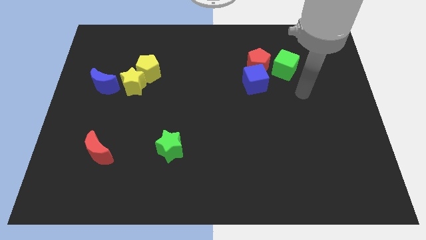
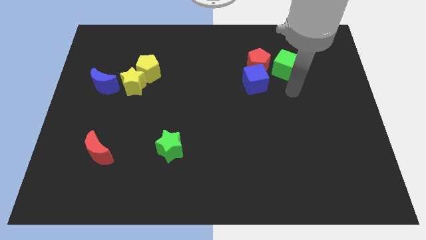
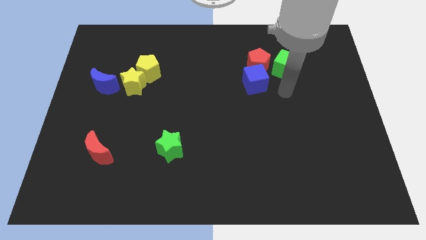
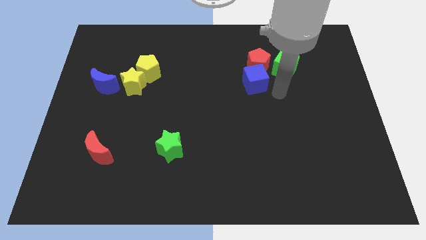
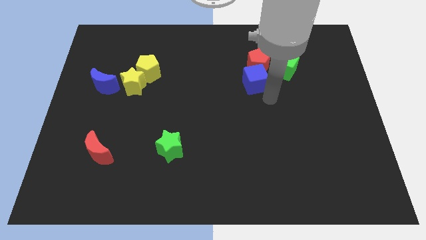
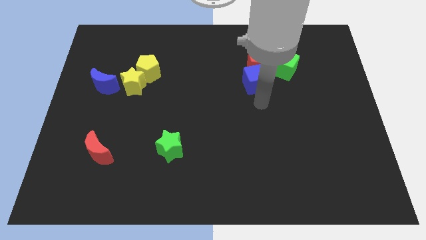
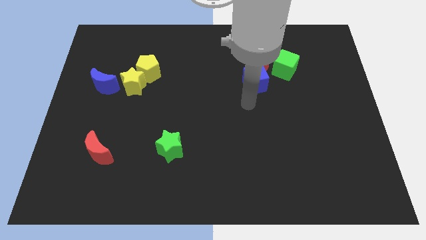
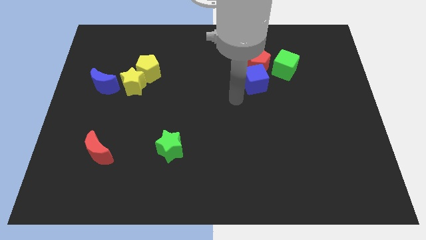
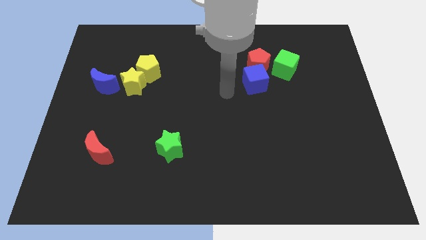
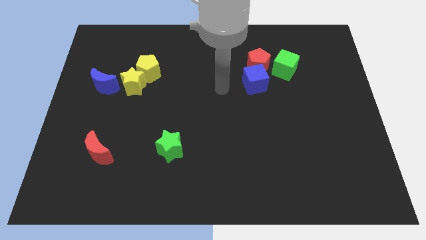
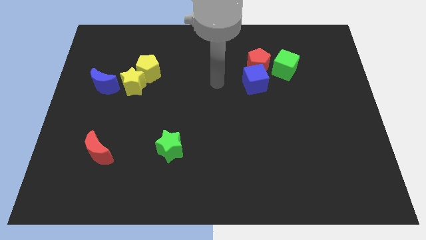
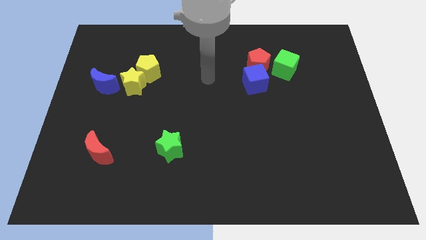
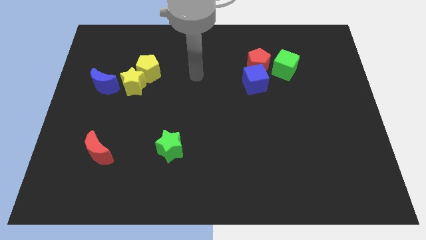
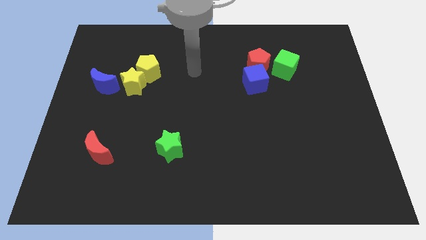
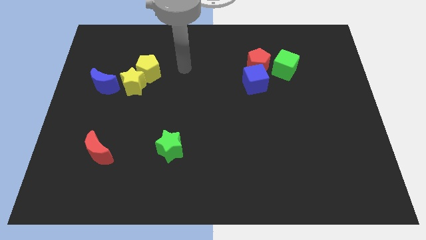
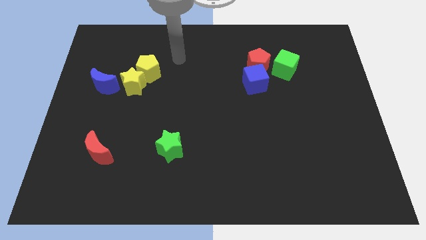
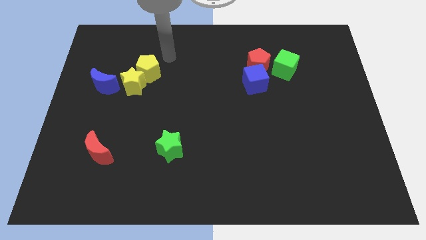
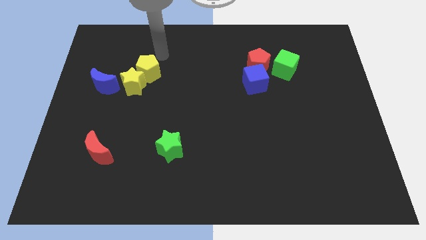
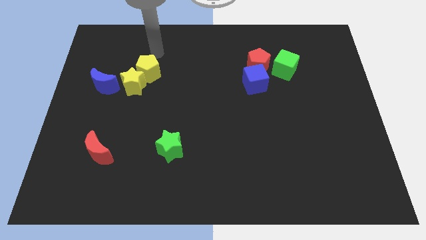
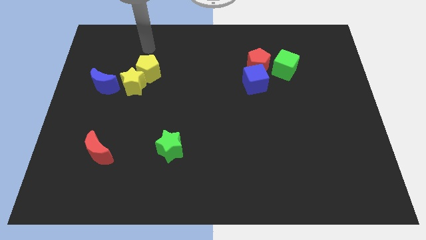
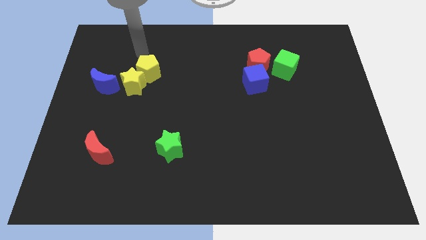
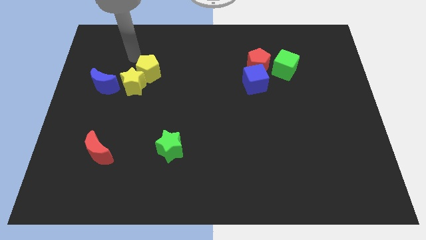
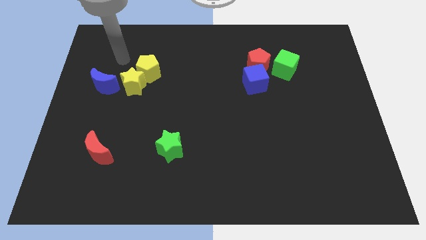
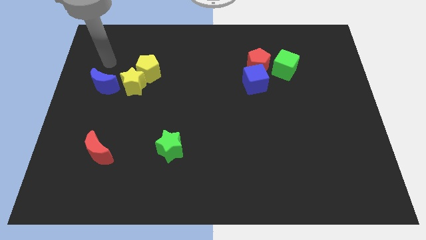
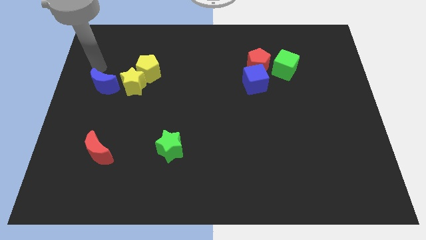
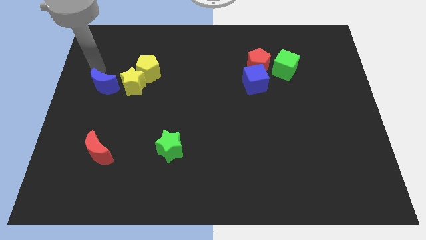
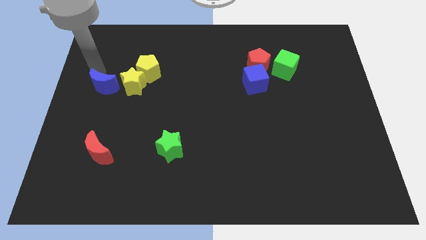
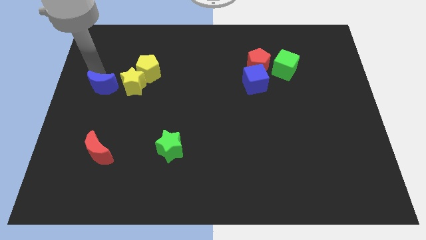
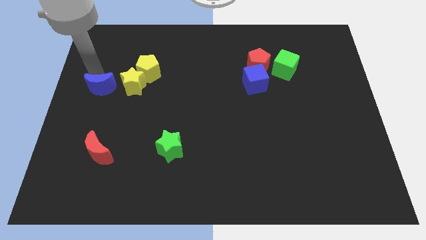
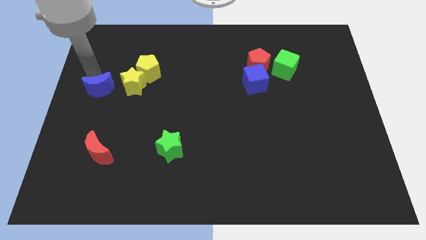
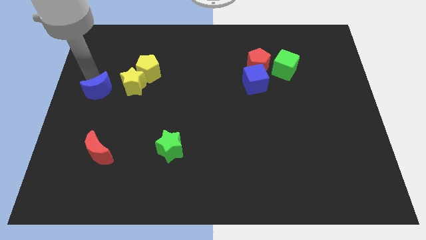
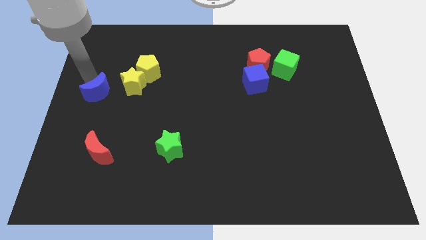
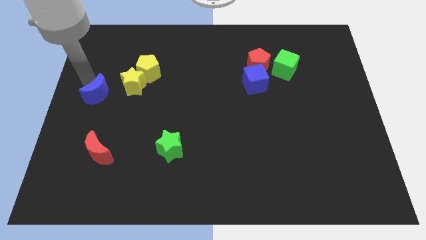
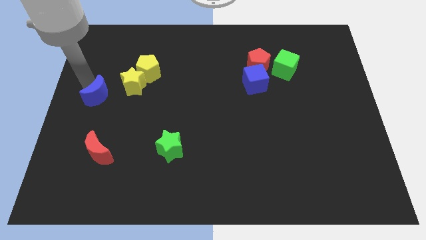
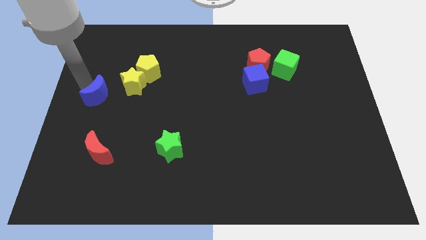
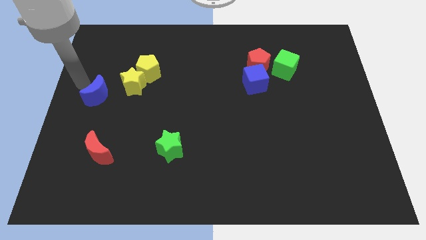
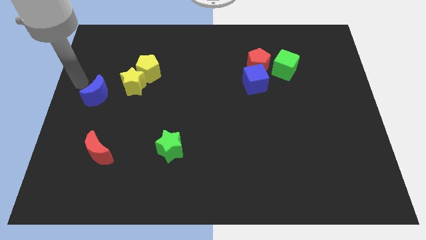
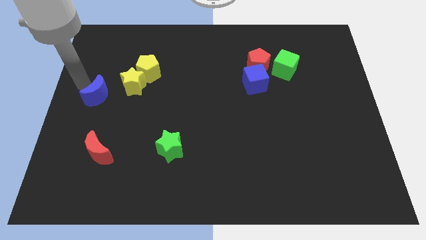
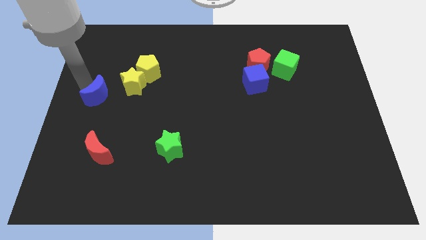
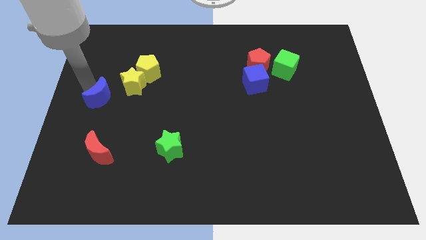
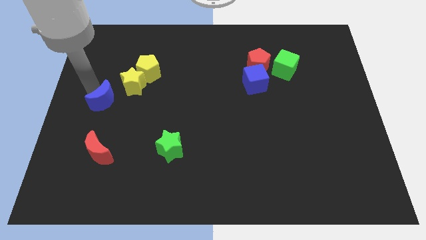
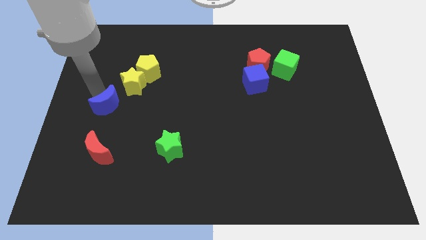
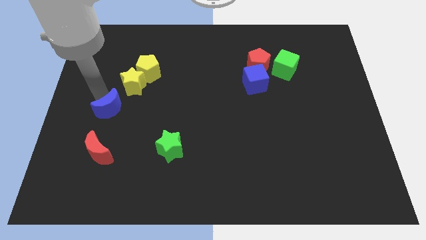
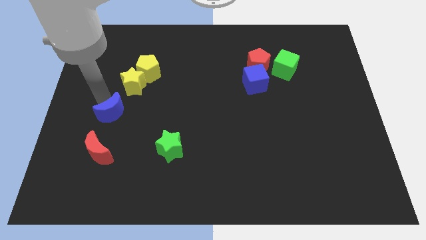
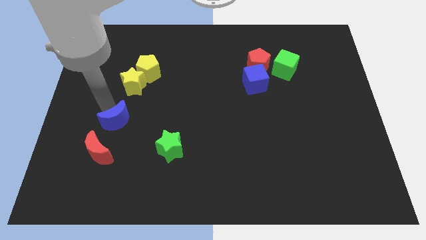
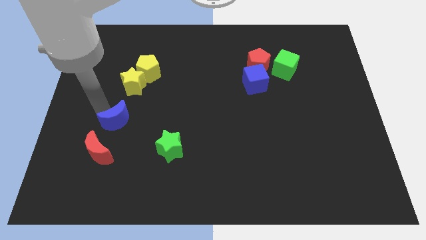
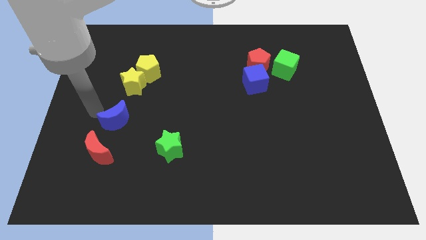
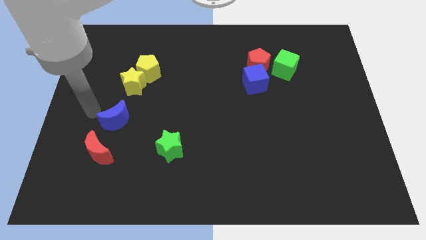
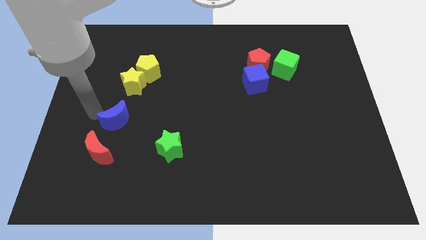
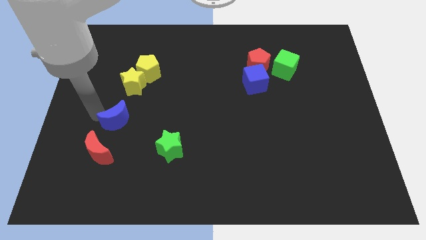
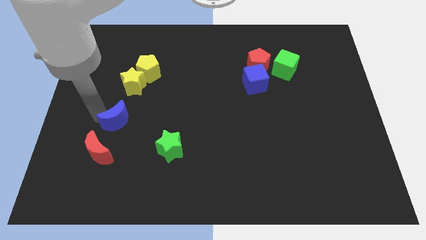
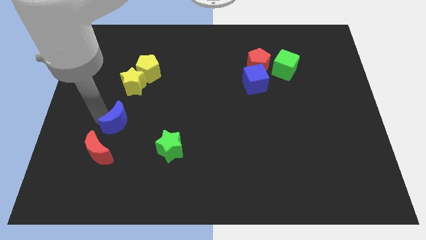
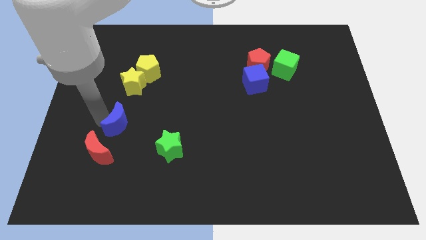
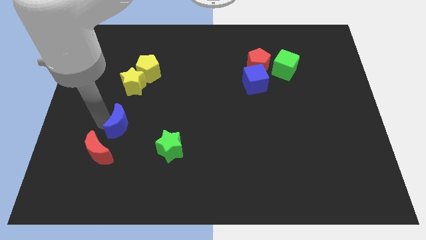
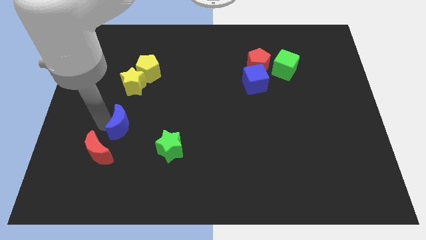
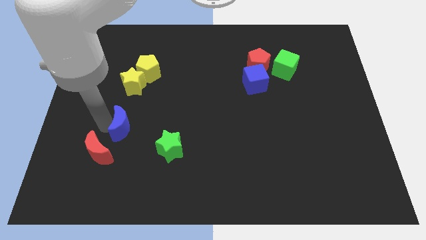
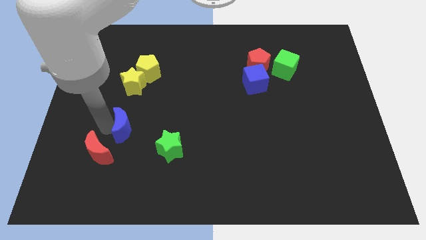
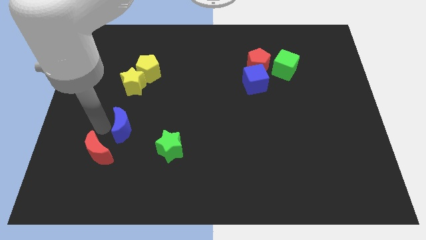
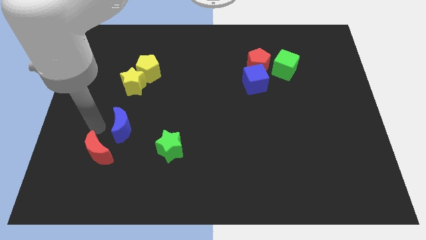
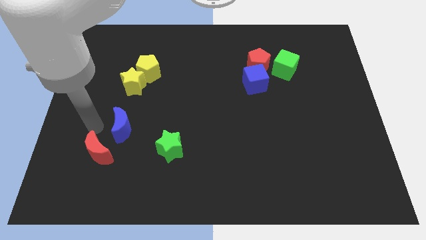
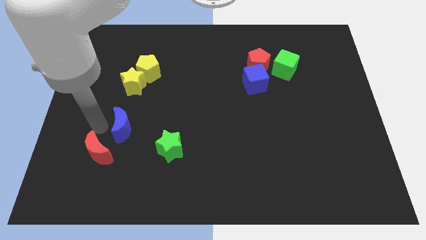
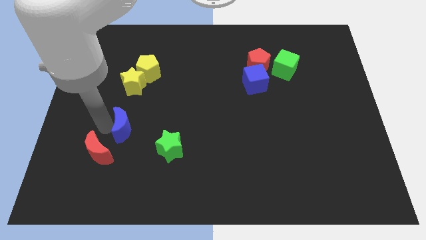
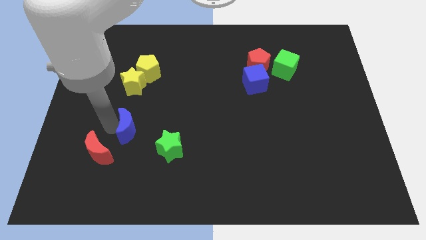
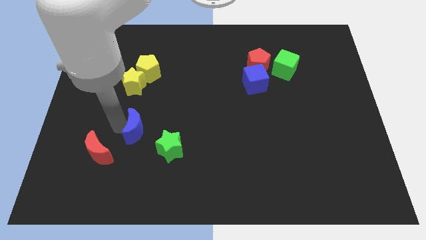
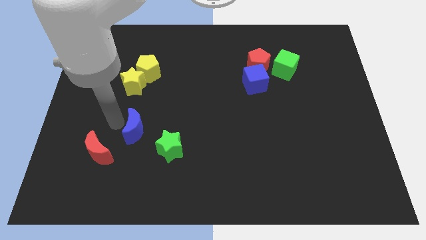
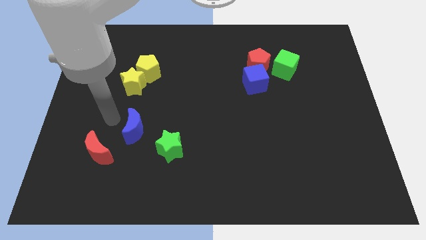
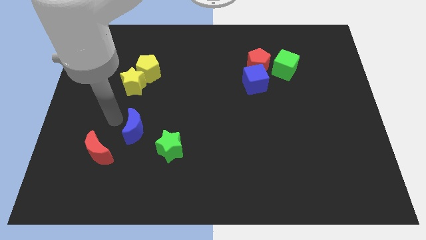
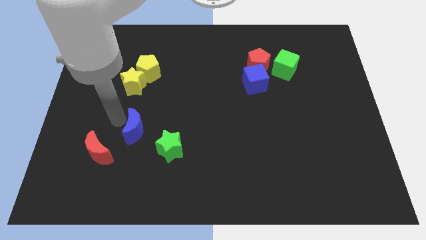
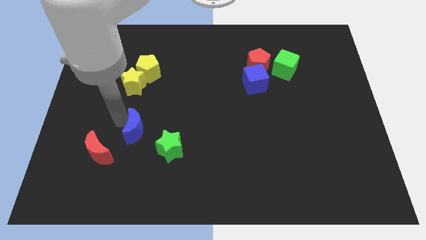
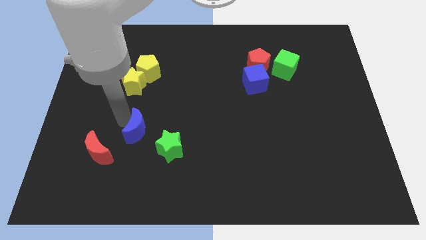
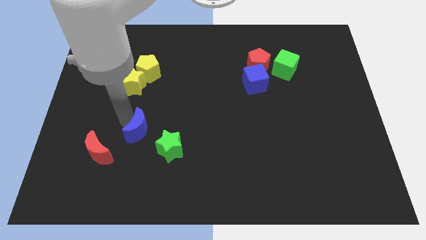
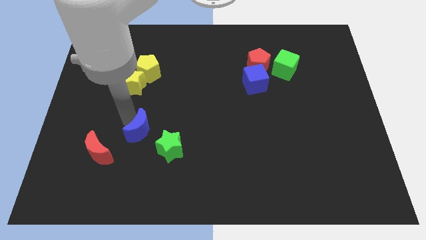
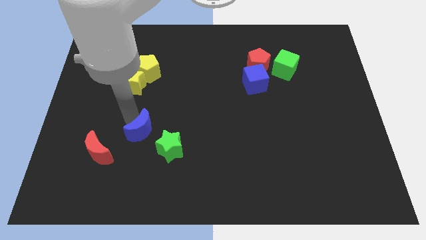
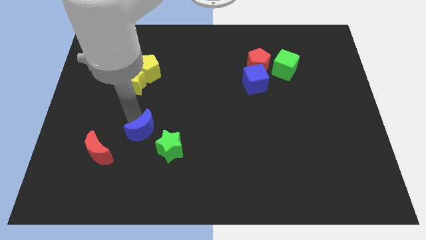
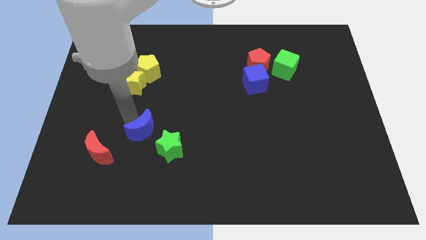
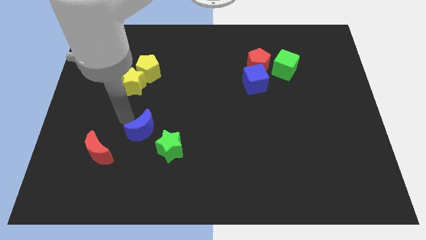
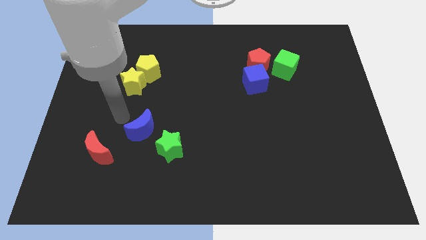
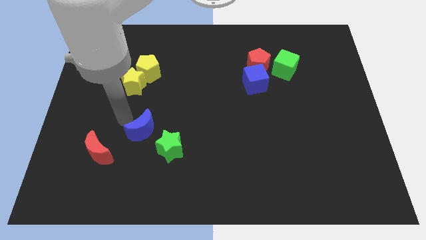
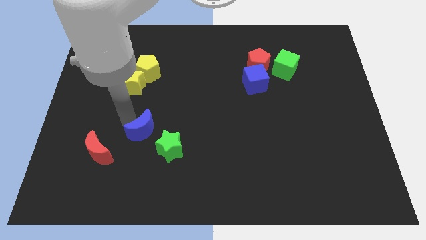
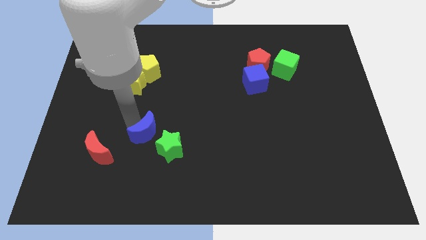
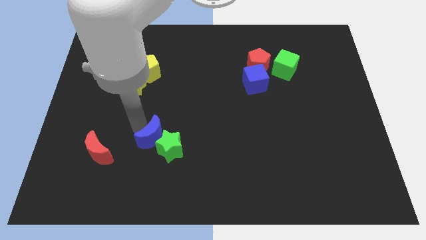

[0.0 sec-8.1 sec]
push the blue moon next to the green star
